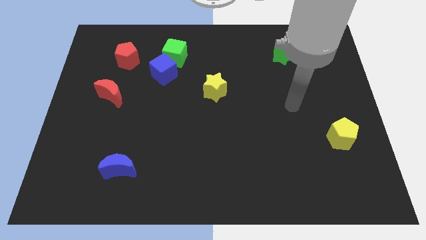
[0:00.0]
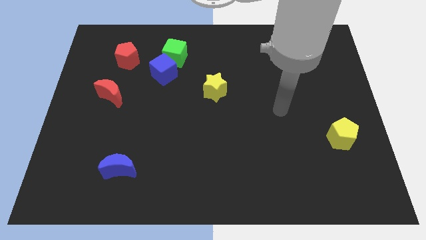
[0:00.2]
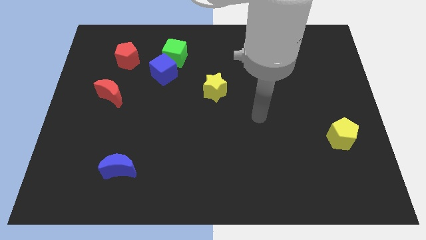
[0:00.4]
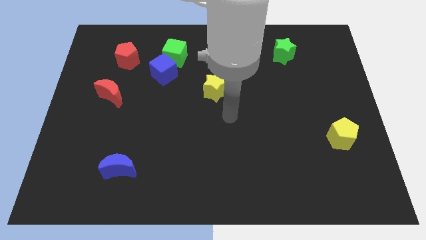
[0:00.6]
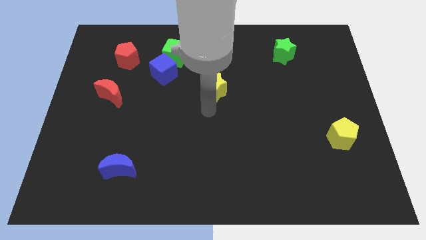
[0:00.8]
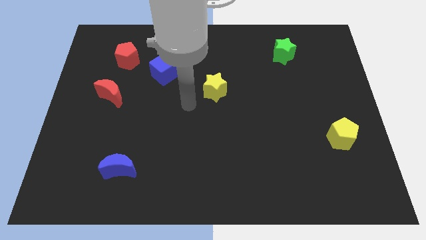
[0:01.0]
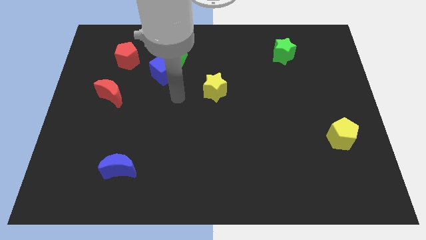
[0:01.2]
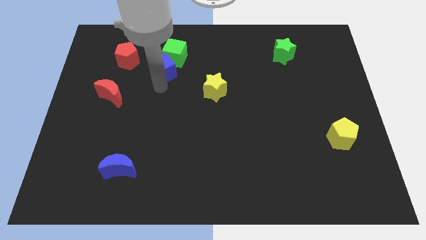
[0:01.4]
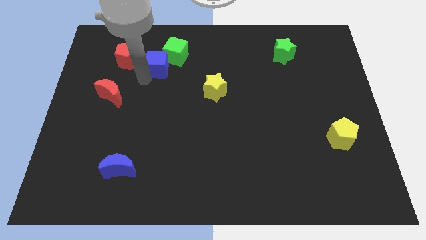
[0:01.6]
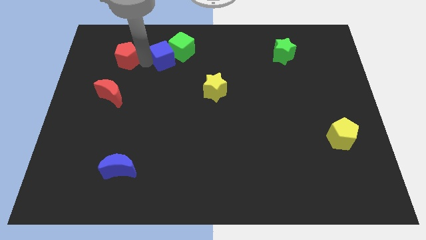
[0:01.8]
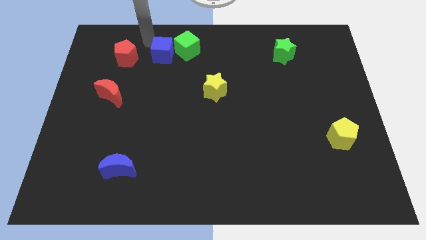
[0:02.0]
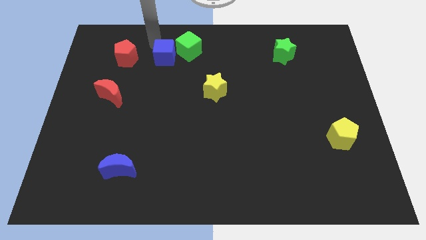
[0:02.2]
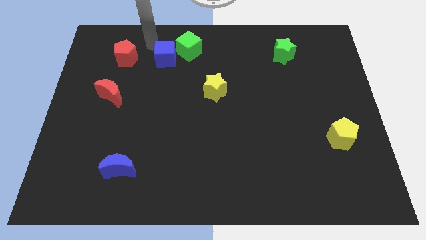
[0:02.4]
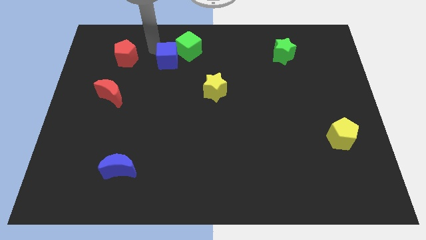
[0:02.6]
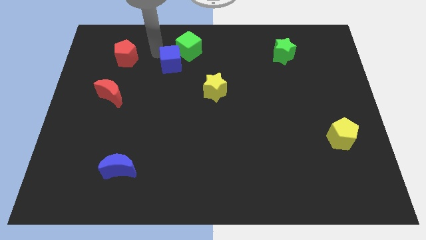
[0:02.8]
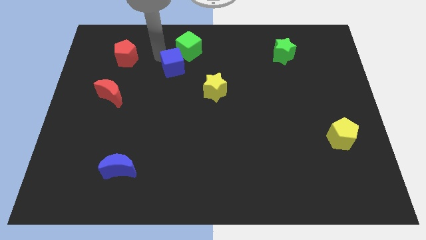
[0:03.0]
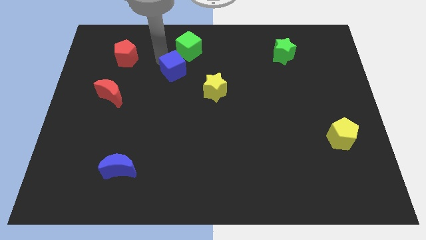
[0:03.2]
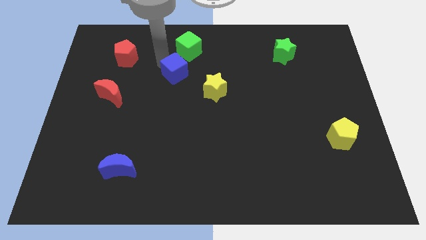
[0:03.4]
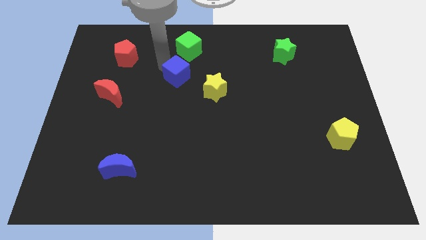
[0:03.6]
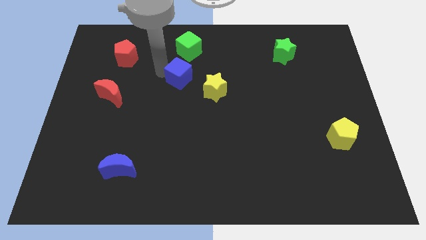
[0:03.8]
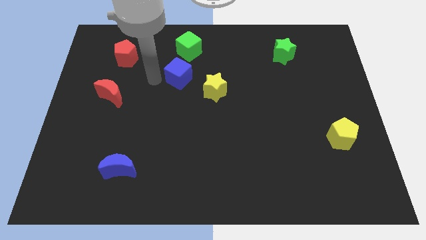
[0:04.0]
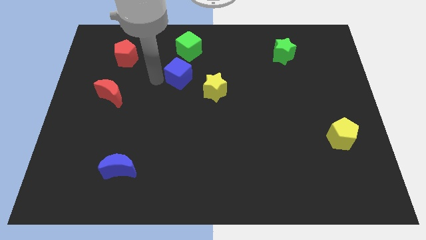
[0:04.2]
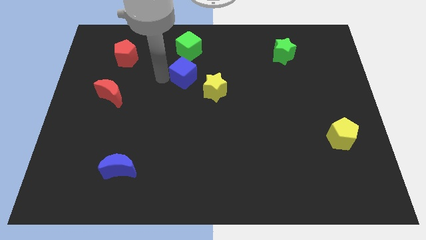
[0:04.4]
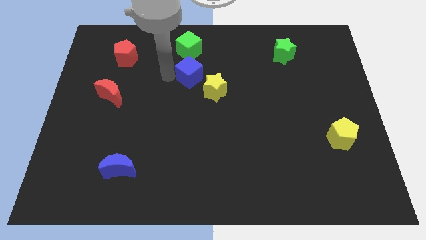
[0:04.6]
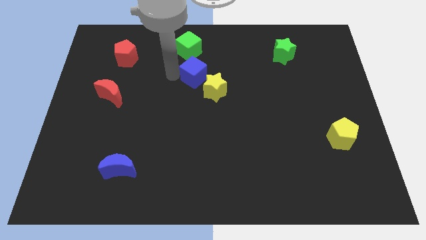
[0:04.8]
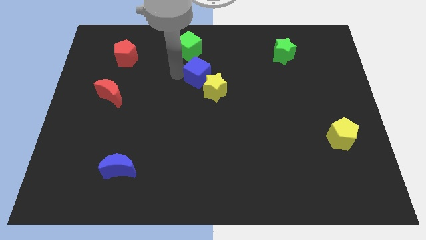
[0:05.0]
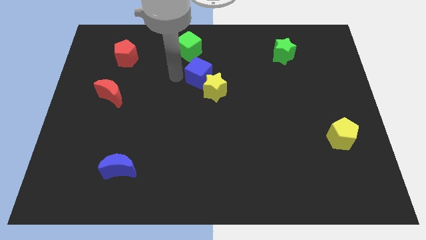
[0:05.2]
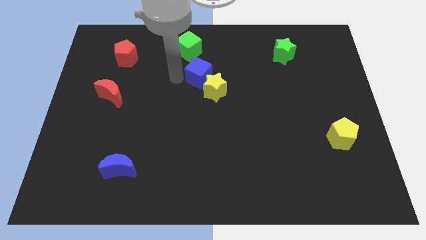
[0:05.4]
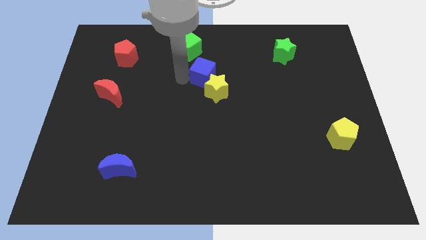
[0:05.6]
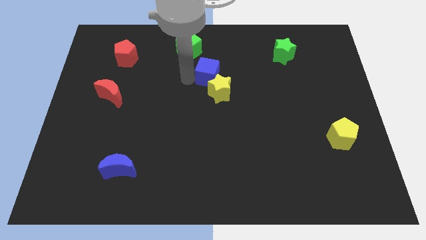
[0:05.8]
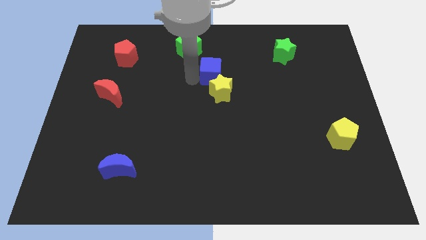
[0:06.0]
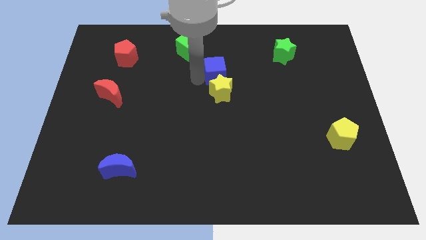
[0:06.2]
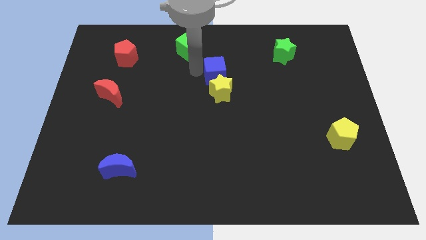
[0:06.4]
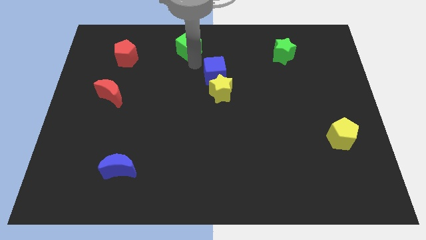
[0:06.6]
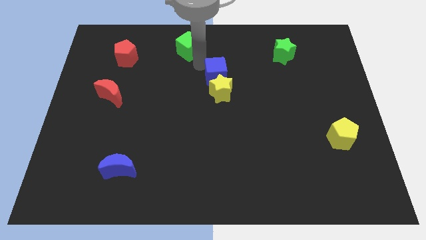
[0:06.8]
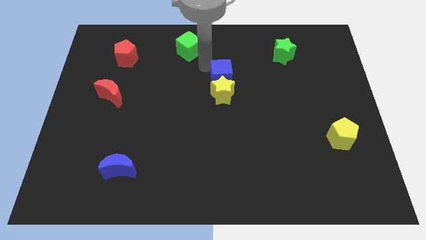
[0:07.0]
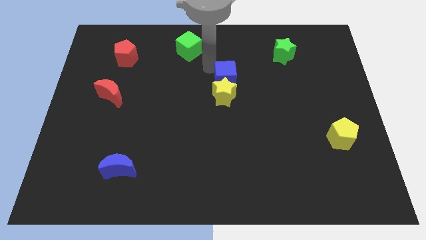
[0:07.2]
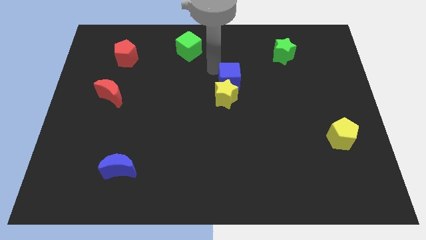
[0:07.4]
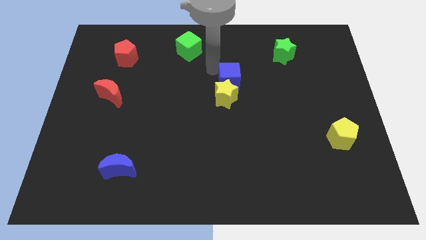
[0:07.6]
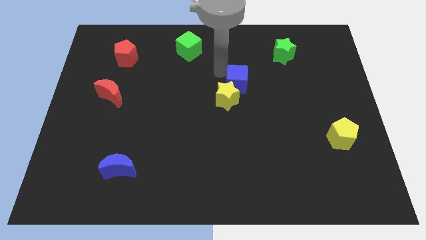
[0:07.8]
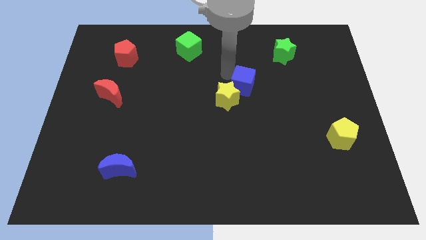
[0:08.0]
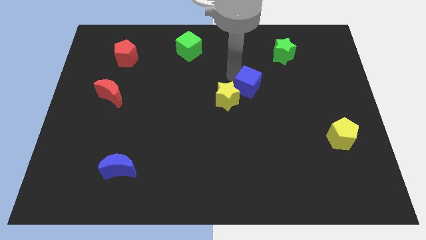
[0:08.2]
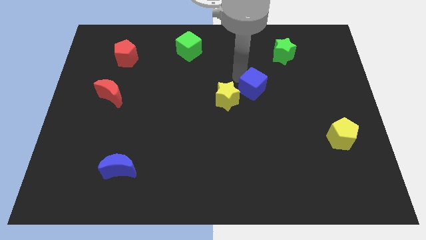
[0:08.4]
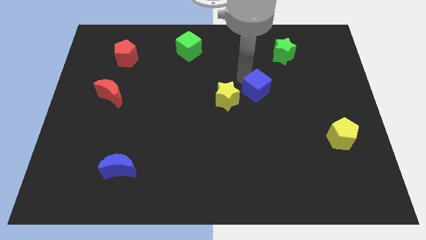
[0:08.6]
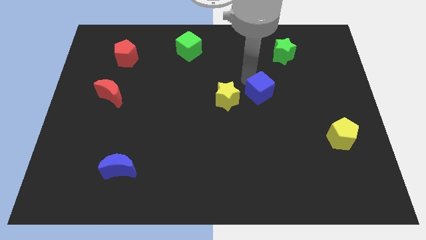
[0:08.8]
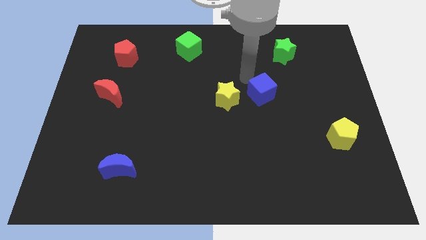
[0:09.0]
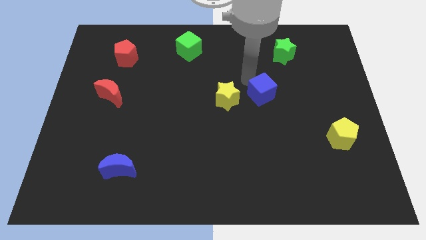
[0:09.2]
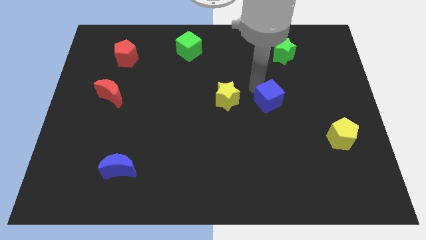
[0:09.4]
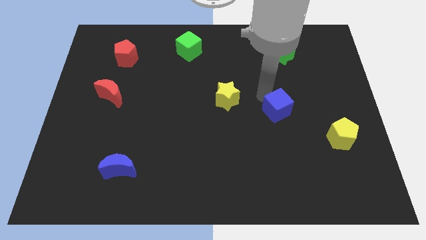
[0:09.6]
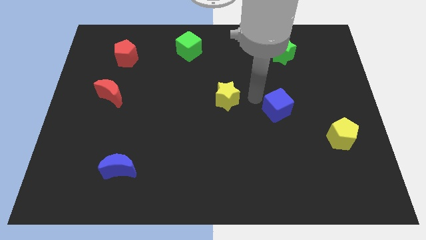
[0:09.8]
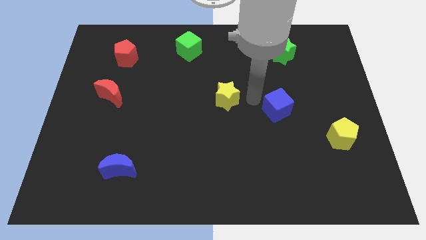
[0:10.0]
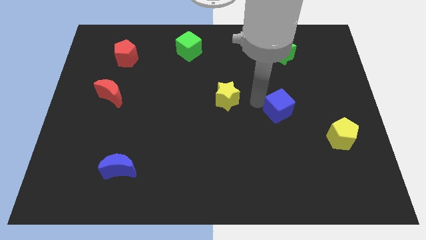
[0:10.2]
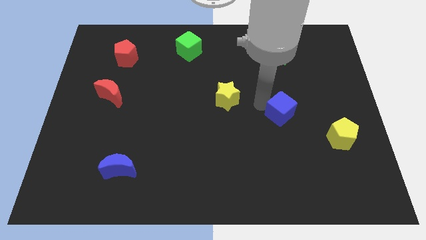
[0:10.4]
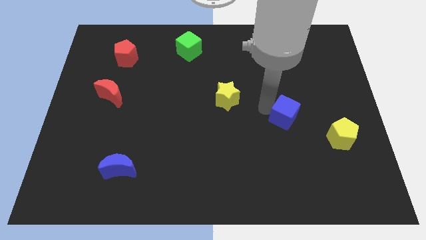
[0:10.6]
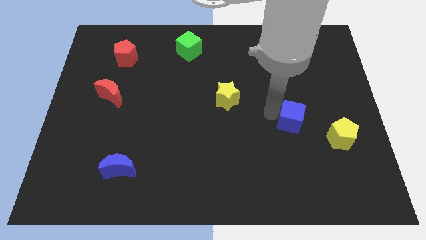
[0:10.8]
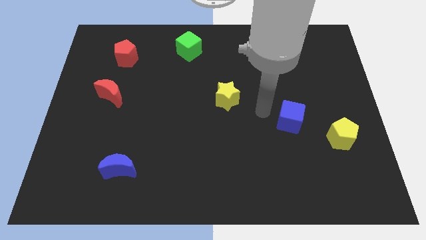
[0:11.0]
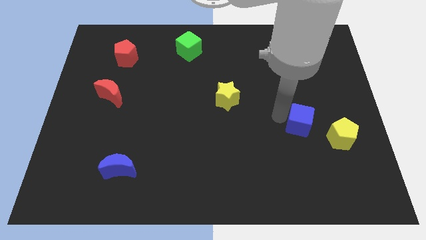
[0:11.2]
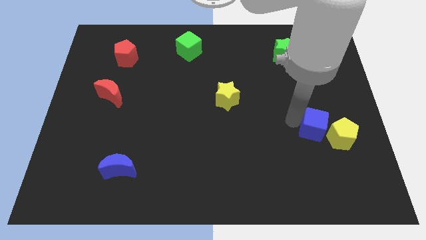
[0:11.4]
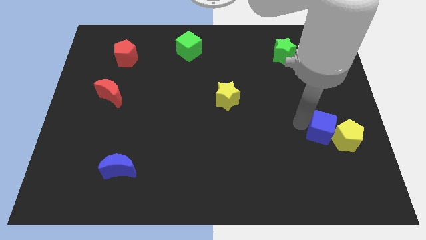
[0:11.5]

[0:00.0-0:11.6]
move the blue cube close to the yellow pentagon
